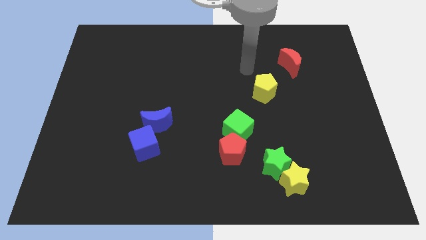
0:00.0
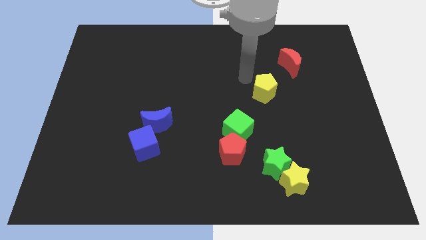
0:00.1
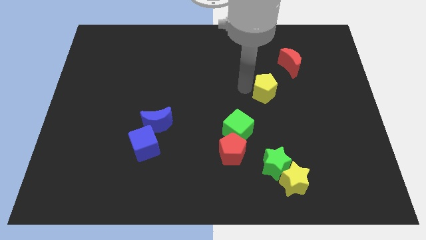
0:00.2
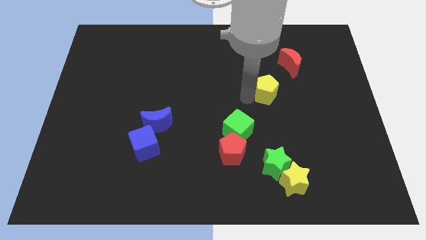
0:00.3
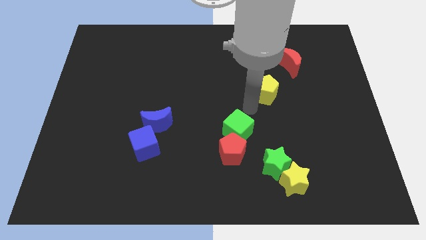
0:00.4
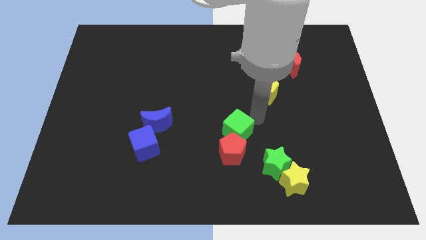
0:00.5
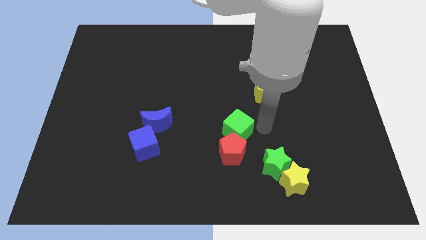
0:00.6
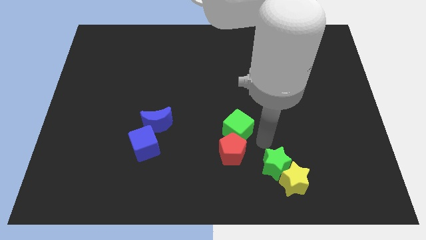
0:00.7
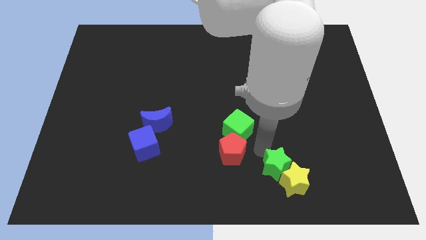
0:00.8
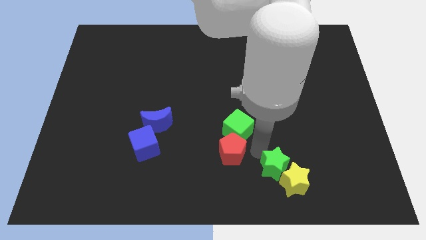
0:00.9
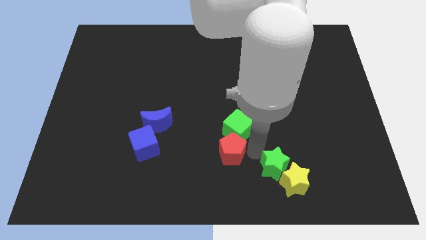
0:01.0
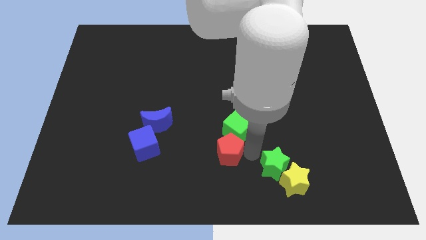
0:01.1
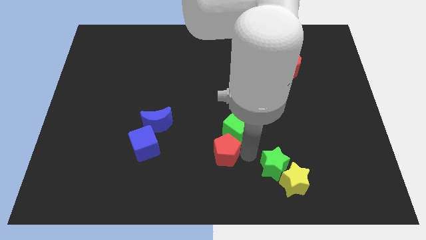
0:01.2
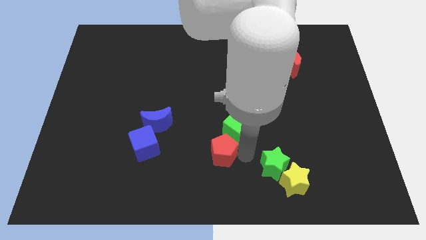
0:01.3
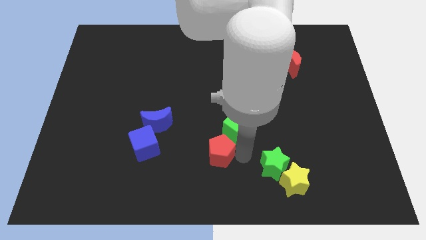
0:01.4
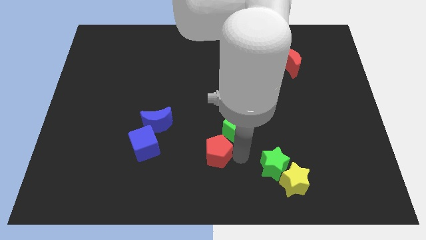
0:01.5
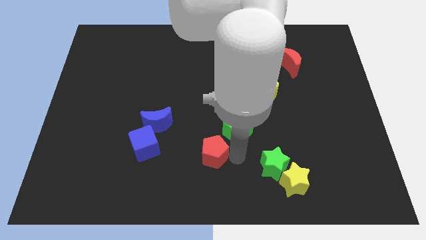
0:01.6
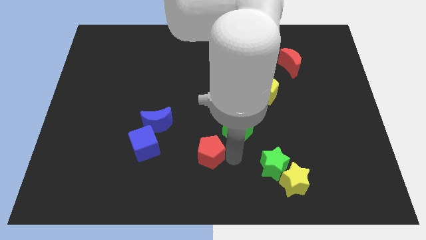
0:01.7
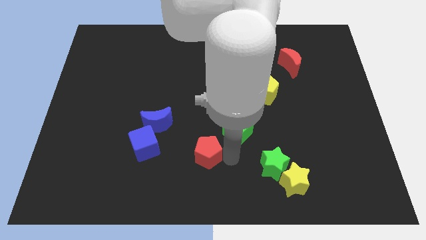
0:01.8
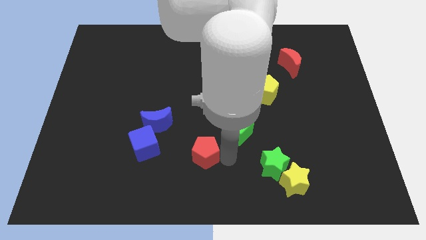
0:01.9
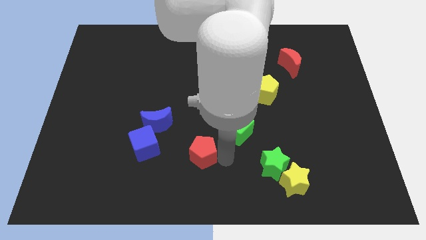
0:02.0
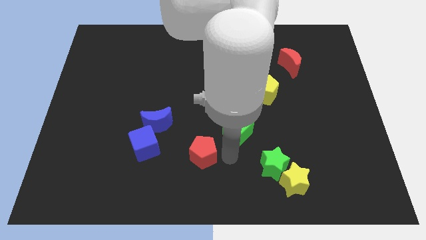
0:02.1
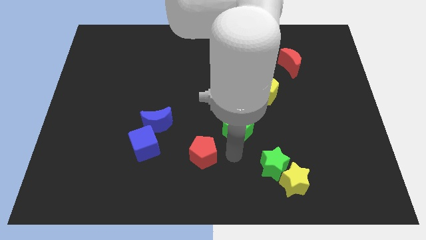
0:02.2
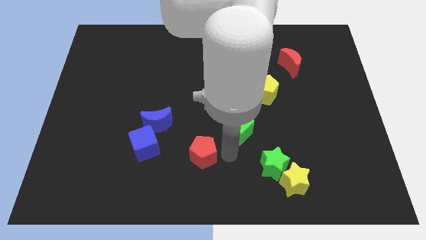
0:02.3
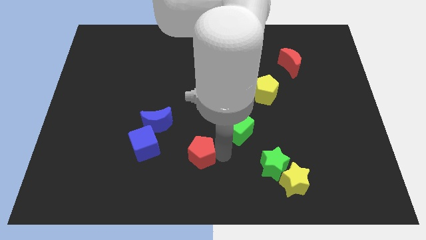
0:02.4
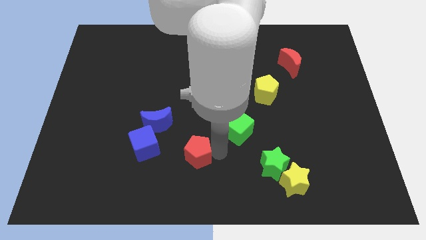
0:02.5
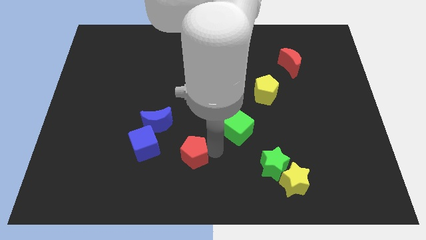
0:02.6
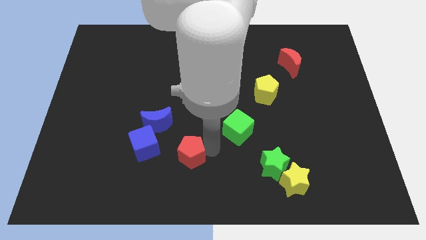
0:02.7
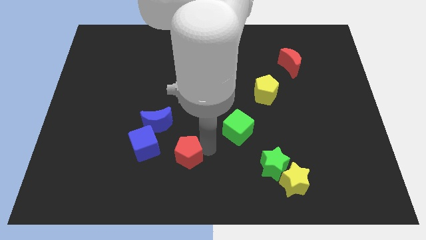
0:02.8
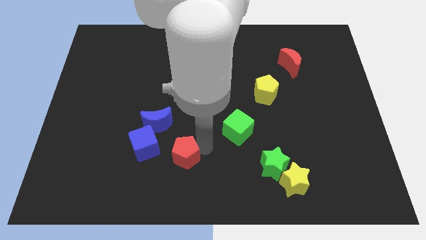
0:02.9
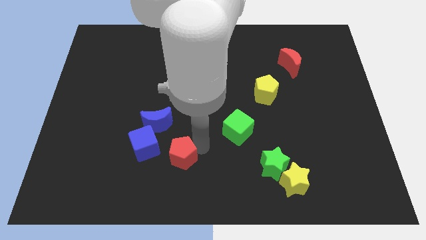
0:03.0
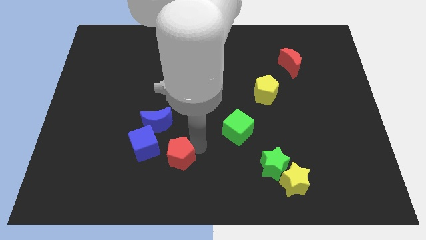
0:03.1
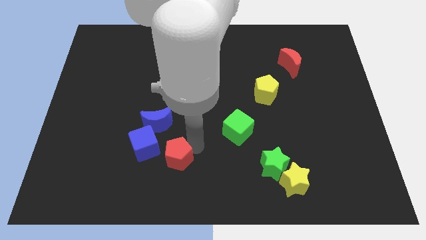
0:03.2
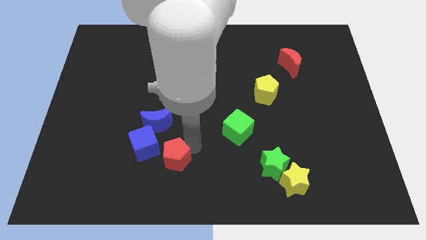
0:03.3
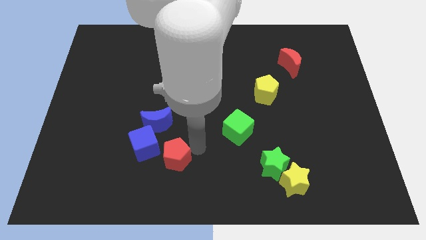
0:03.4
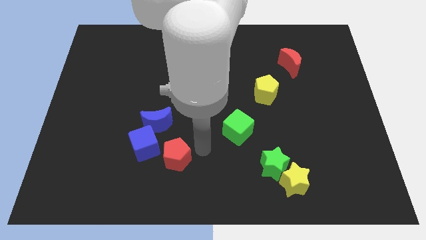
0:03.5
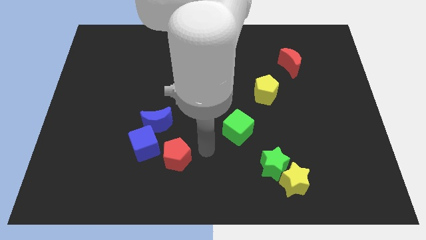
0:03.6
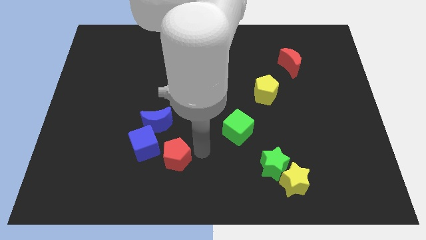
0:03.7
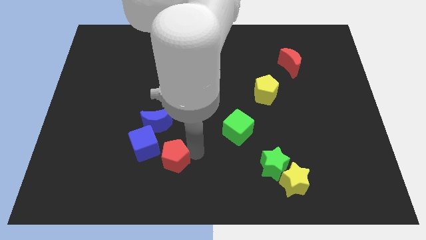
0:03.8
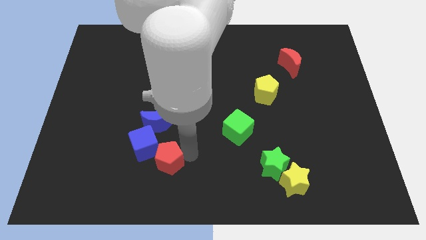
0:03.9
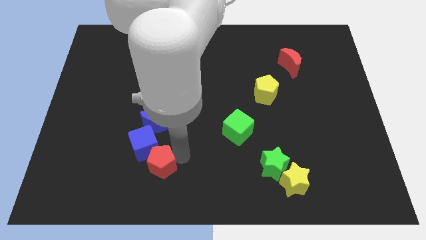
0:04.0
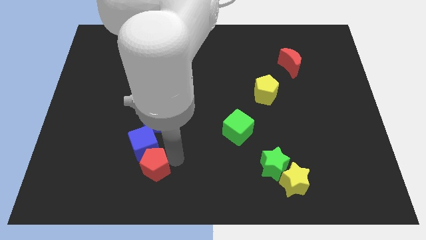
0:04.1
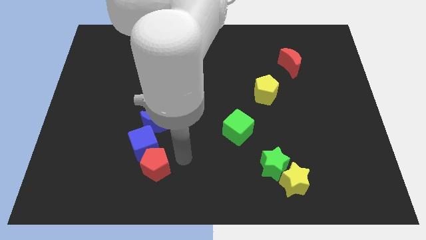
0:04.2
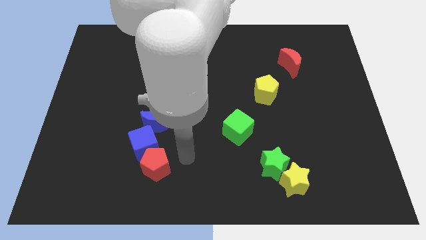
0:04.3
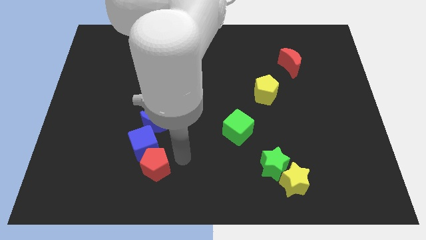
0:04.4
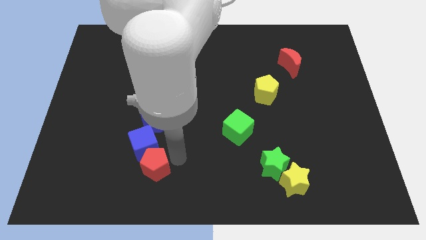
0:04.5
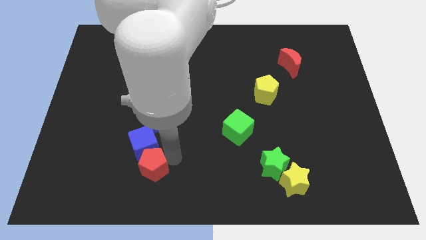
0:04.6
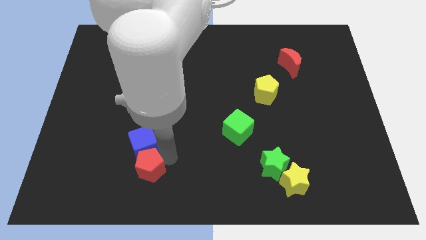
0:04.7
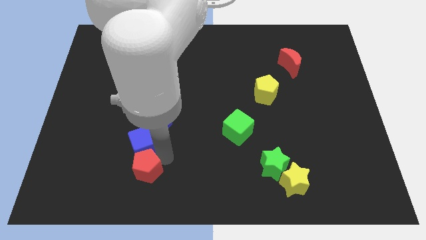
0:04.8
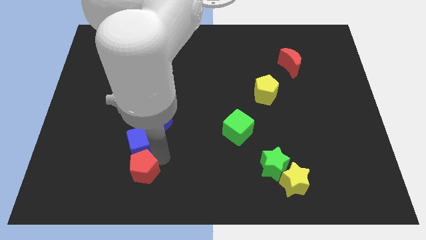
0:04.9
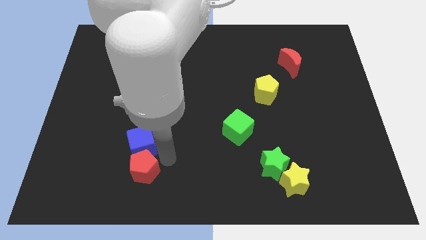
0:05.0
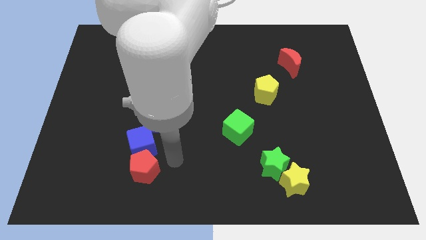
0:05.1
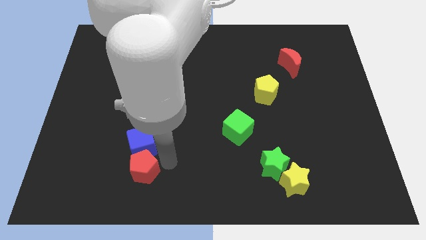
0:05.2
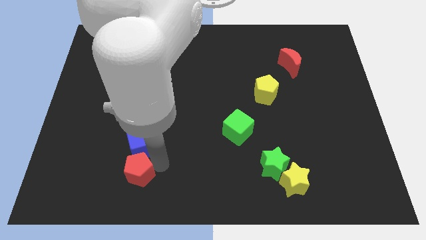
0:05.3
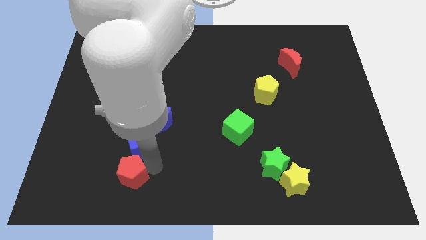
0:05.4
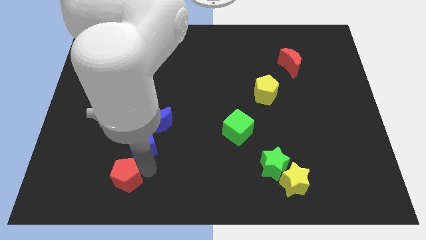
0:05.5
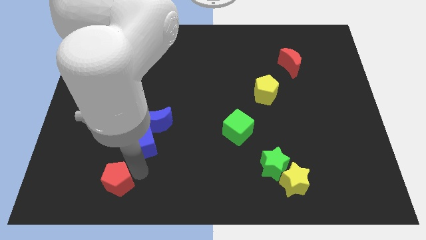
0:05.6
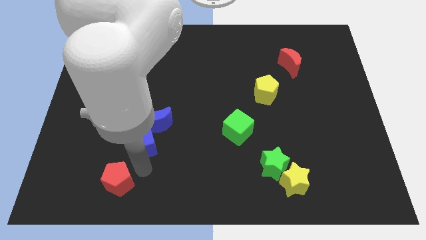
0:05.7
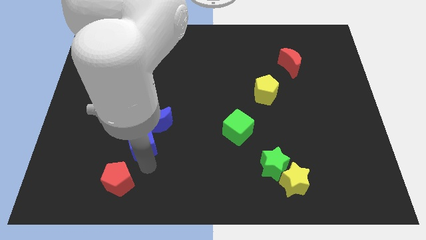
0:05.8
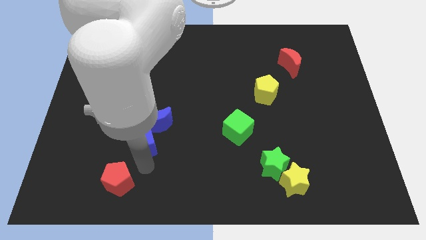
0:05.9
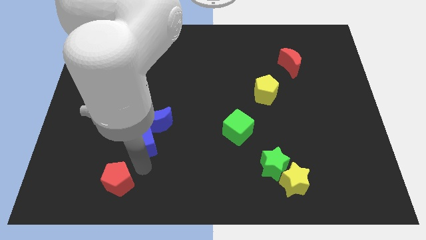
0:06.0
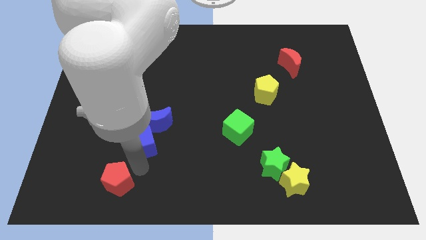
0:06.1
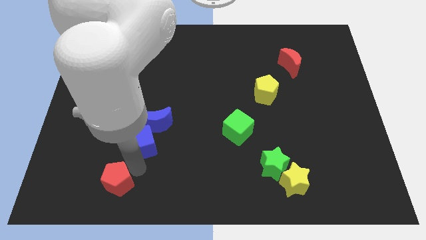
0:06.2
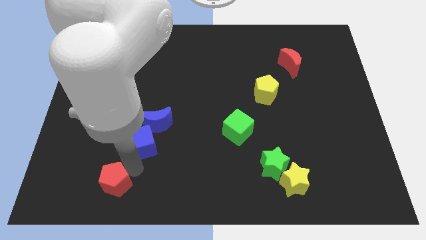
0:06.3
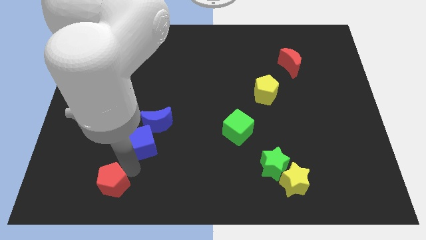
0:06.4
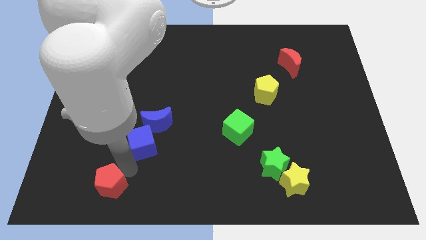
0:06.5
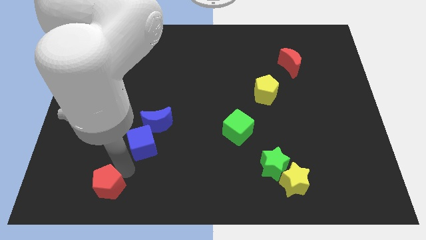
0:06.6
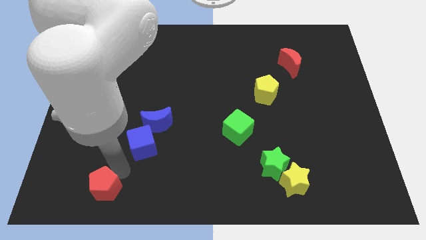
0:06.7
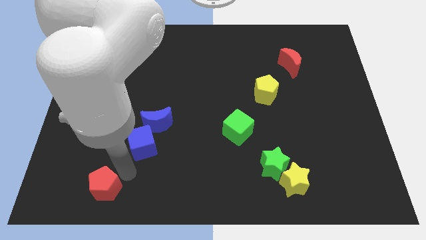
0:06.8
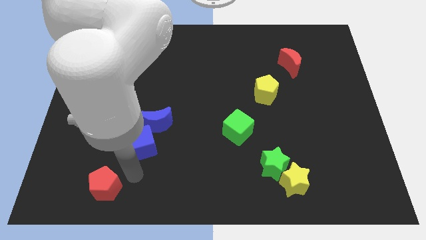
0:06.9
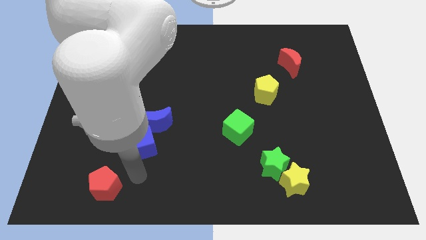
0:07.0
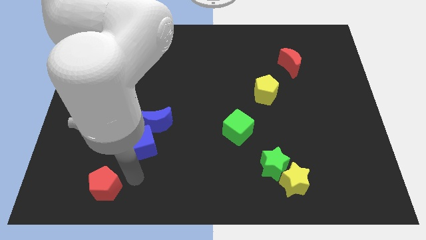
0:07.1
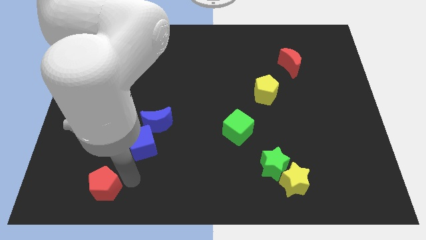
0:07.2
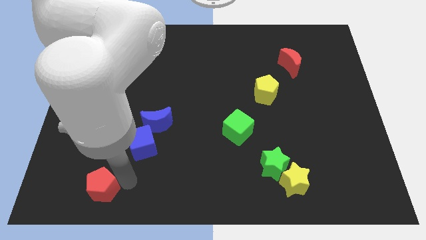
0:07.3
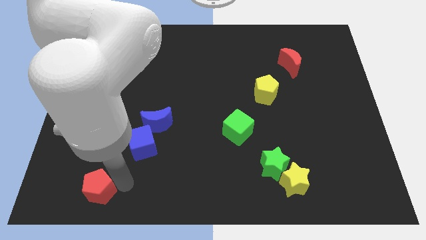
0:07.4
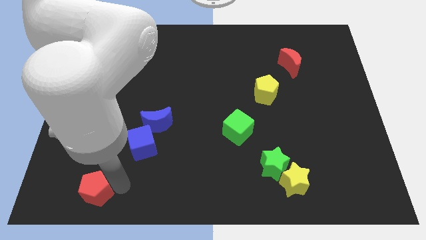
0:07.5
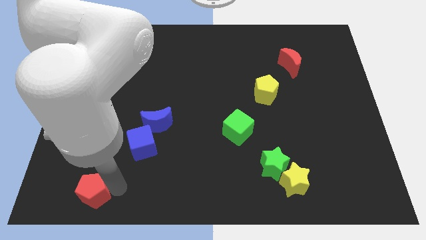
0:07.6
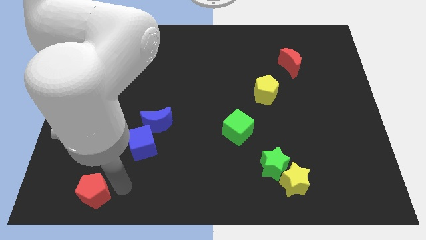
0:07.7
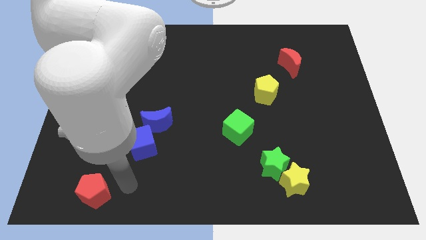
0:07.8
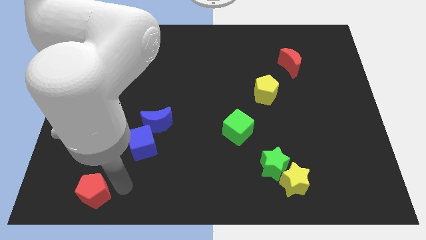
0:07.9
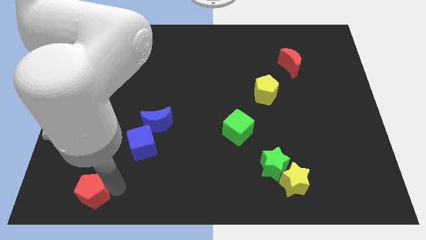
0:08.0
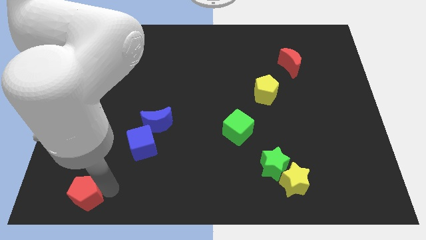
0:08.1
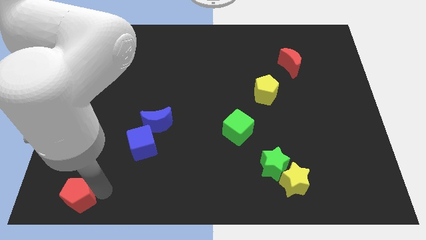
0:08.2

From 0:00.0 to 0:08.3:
put the red pentagon to the bottom left of the board
